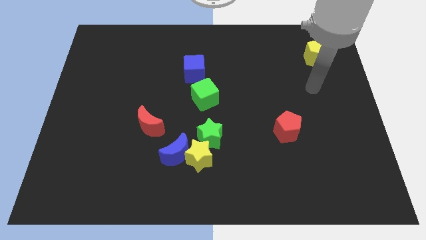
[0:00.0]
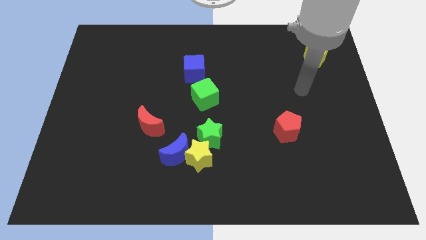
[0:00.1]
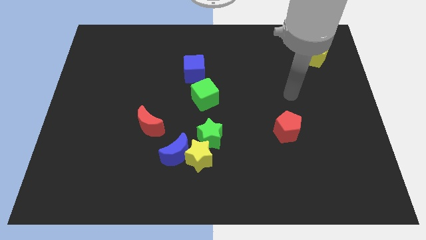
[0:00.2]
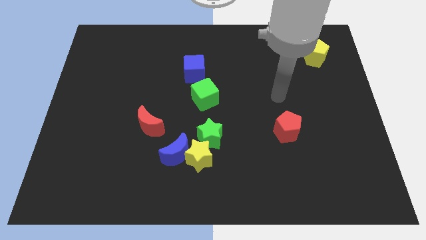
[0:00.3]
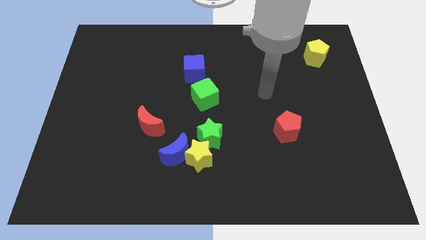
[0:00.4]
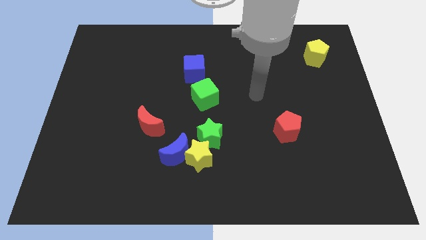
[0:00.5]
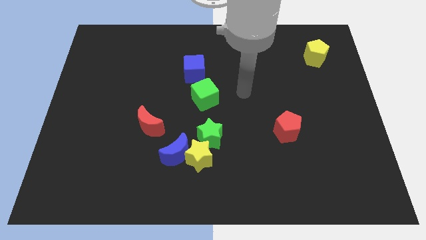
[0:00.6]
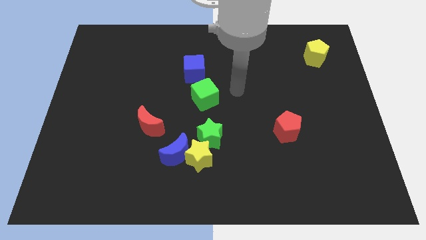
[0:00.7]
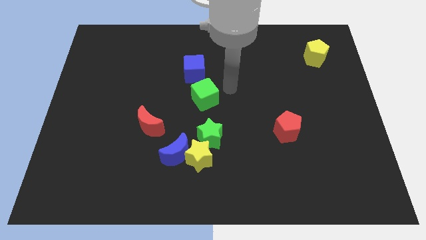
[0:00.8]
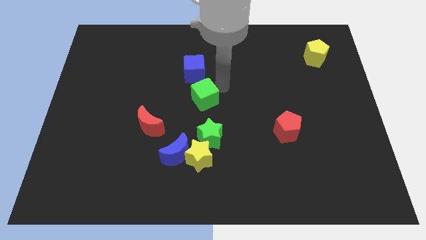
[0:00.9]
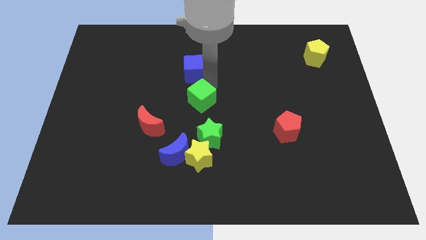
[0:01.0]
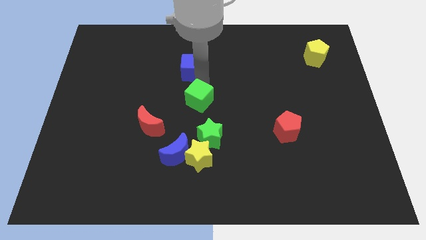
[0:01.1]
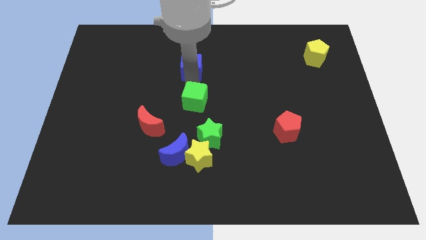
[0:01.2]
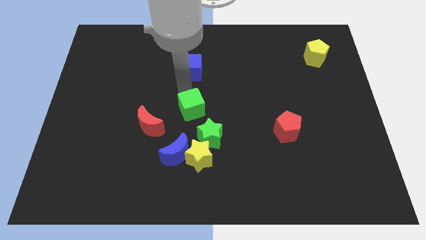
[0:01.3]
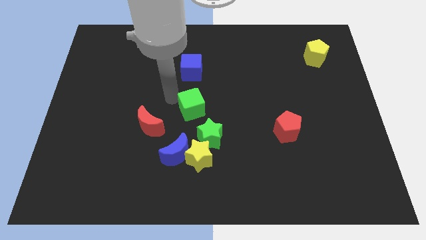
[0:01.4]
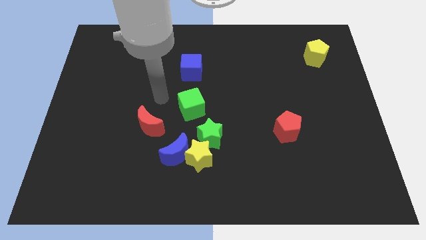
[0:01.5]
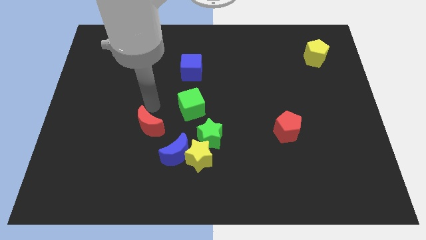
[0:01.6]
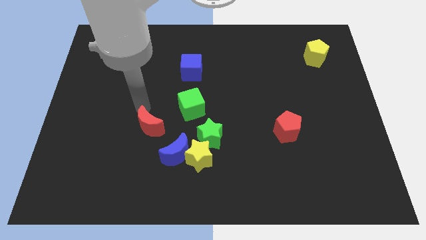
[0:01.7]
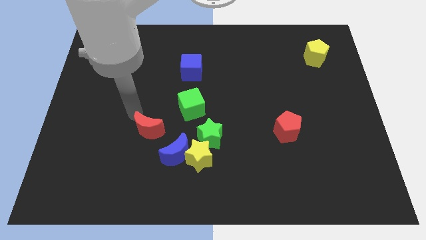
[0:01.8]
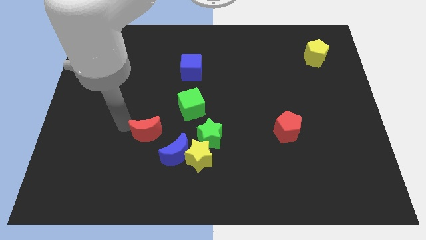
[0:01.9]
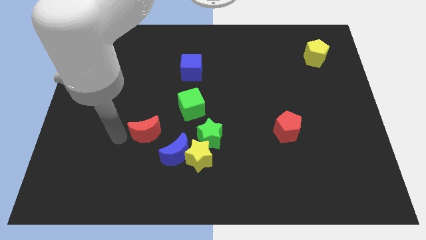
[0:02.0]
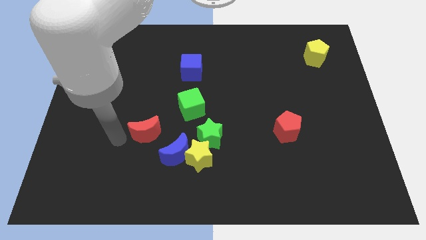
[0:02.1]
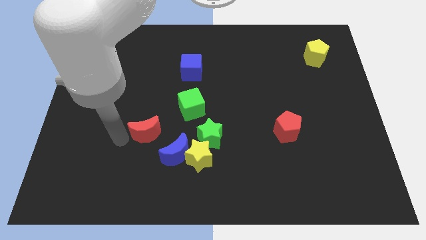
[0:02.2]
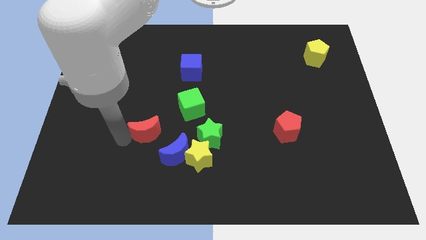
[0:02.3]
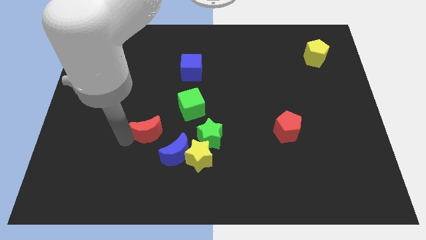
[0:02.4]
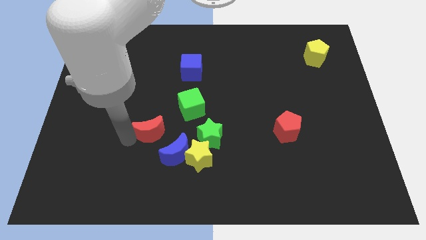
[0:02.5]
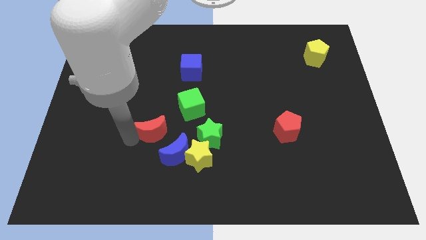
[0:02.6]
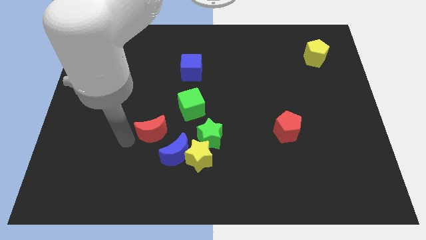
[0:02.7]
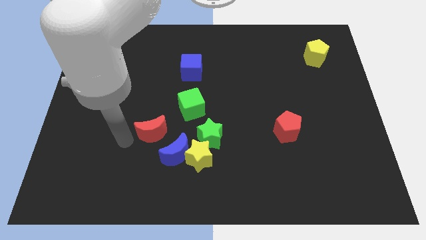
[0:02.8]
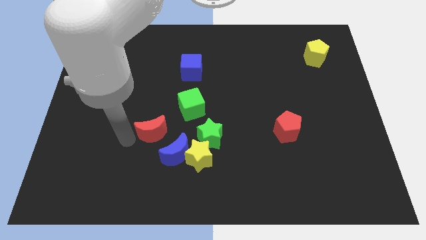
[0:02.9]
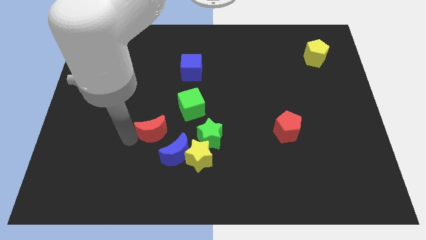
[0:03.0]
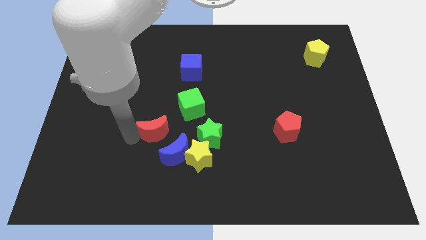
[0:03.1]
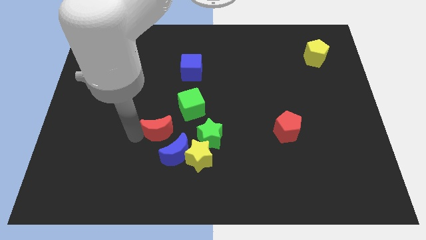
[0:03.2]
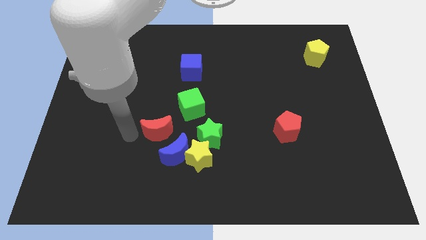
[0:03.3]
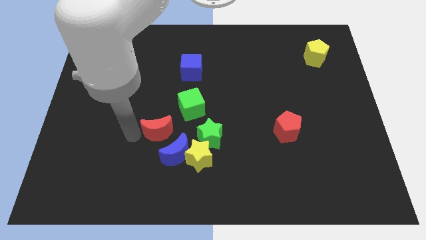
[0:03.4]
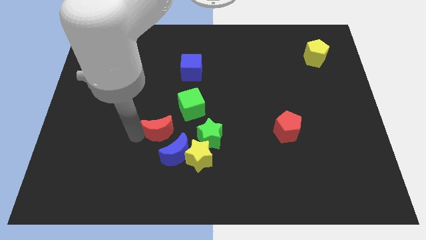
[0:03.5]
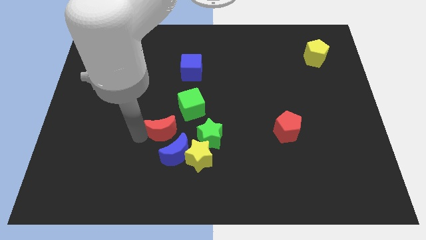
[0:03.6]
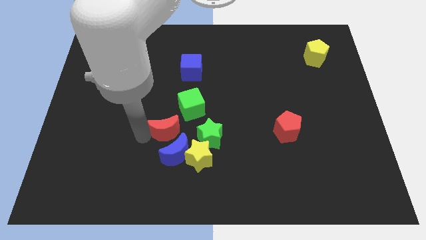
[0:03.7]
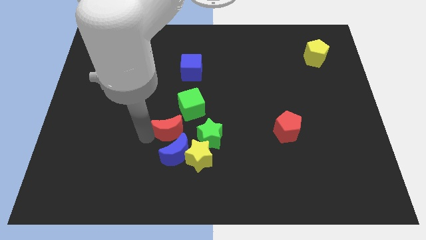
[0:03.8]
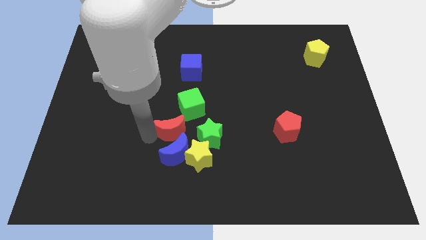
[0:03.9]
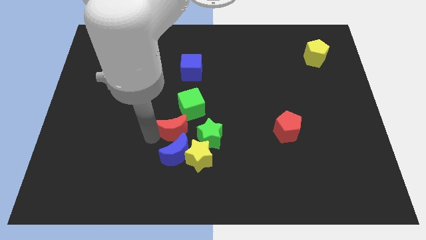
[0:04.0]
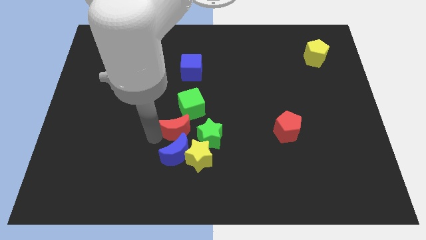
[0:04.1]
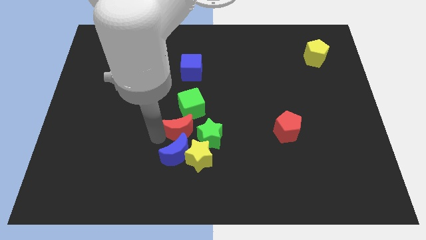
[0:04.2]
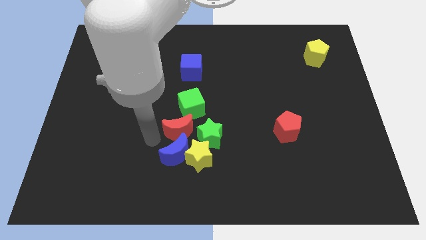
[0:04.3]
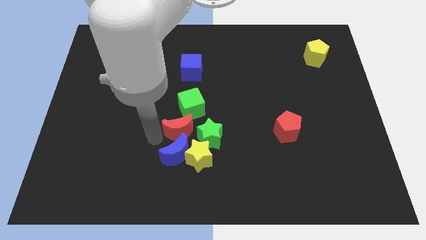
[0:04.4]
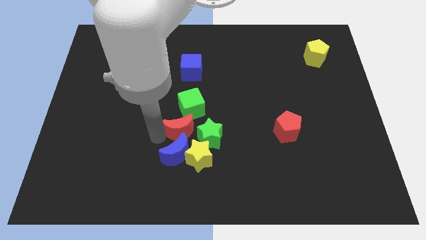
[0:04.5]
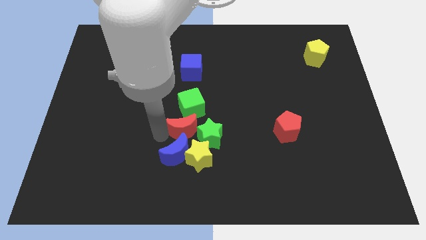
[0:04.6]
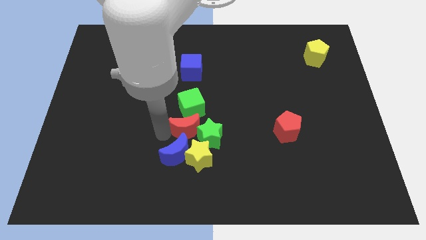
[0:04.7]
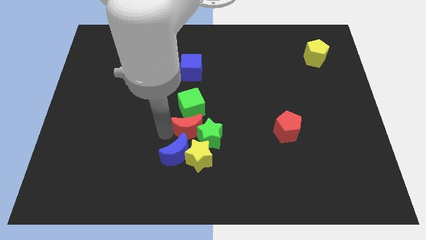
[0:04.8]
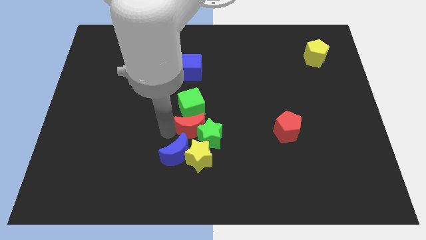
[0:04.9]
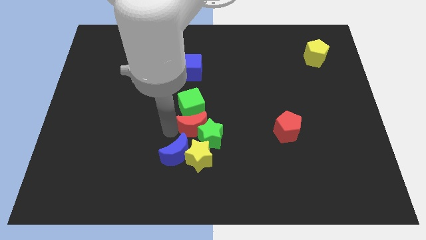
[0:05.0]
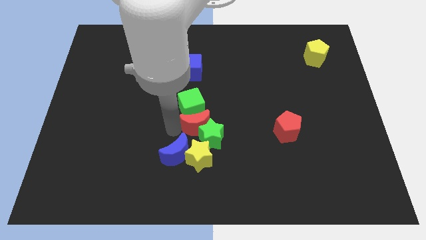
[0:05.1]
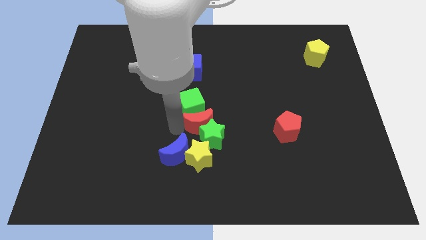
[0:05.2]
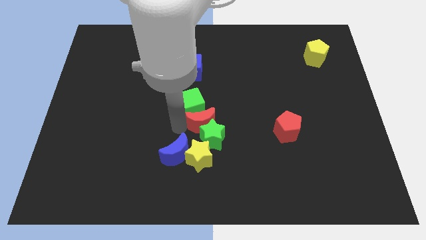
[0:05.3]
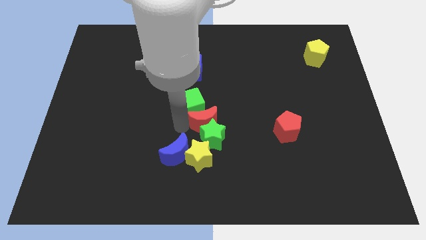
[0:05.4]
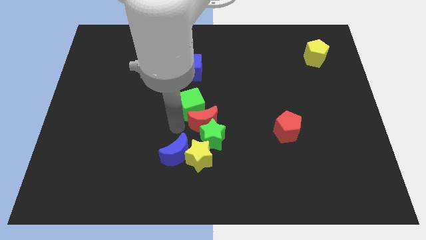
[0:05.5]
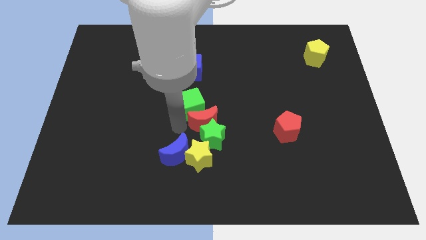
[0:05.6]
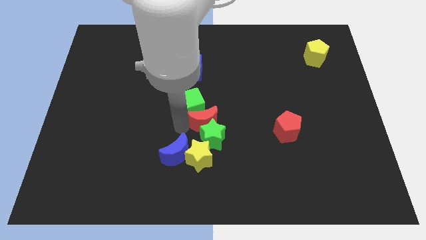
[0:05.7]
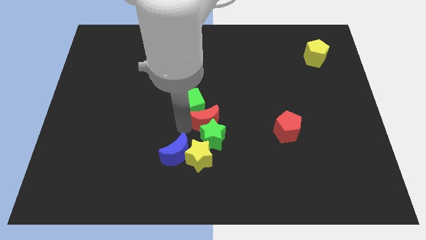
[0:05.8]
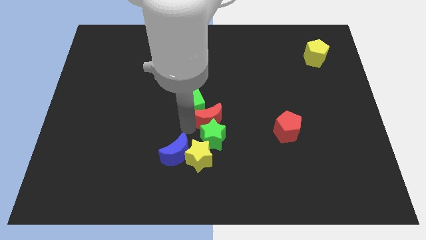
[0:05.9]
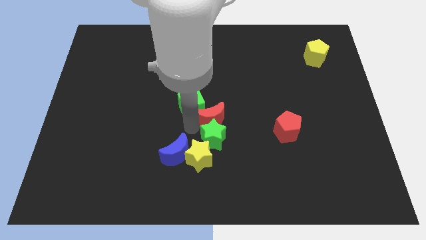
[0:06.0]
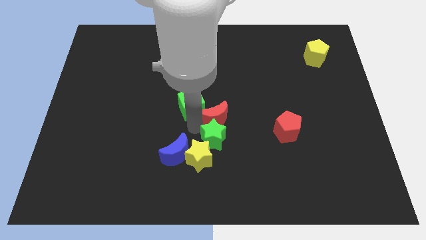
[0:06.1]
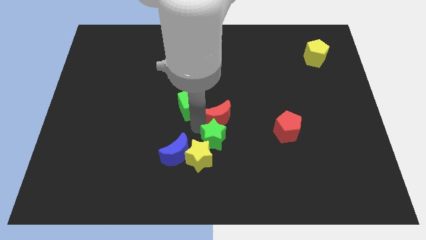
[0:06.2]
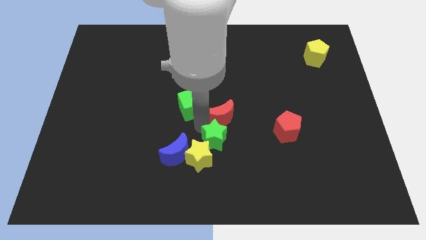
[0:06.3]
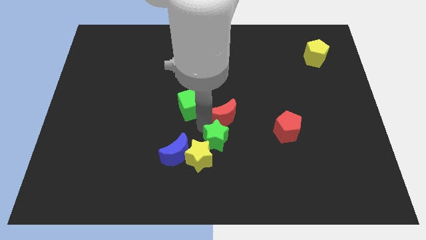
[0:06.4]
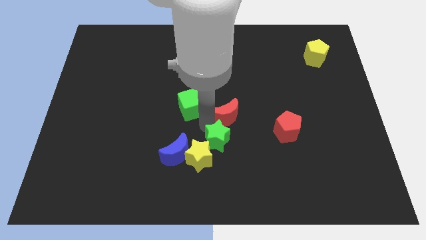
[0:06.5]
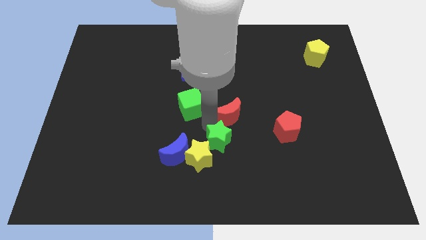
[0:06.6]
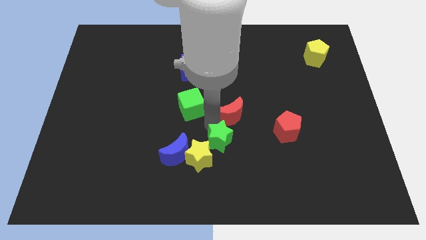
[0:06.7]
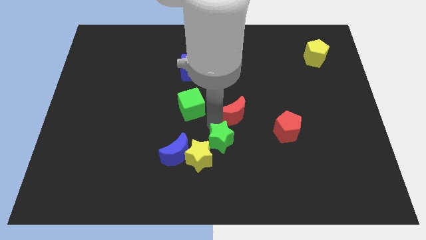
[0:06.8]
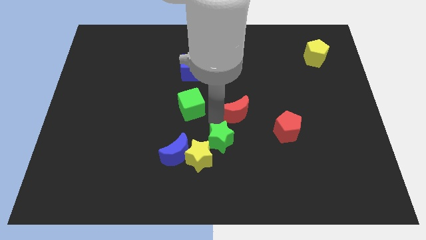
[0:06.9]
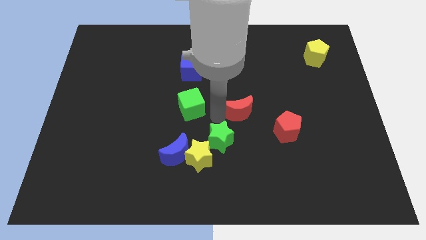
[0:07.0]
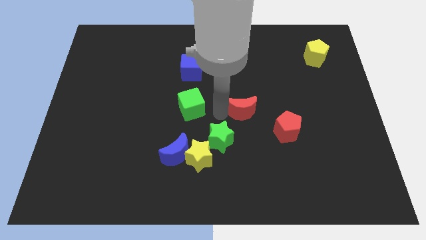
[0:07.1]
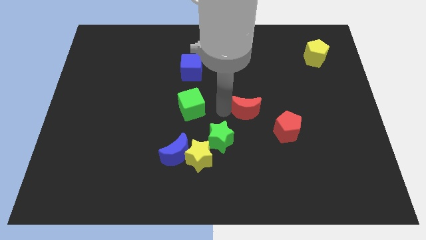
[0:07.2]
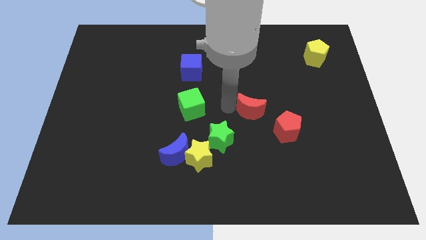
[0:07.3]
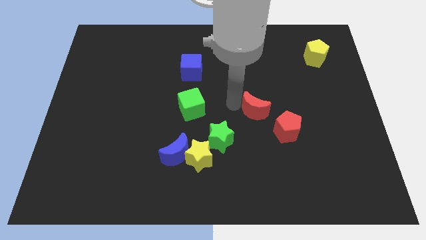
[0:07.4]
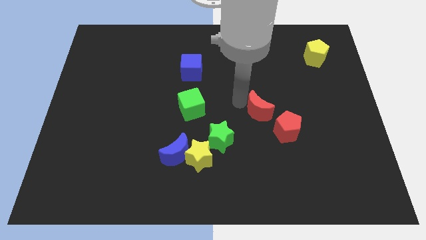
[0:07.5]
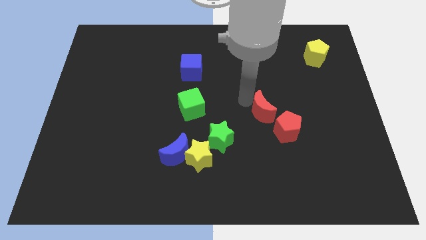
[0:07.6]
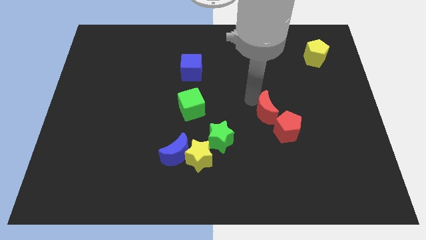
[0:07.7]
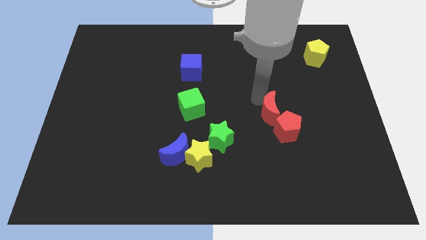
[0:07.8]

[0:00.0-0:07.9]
push the red moon to the red pentagon
